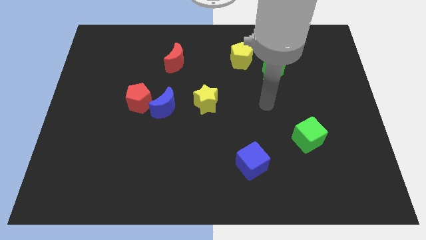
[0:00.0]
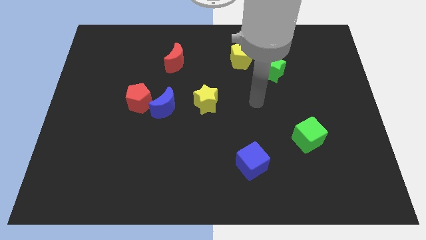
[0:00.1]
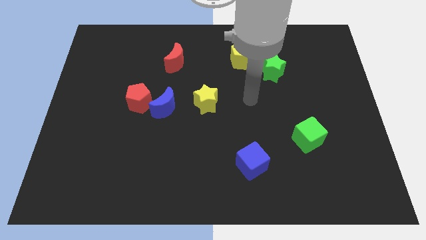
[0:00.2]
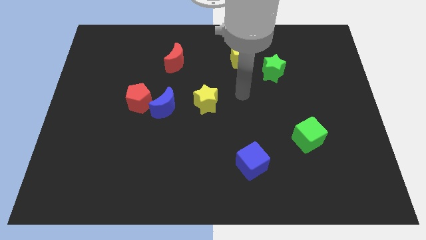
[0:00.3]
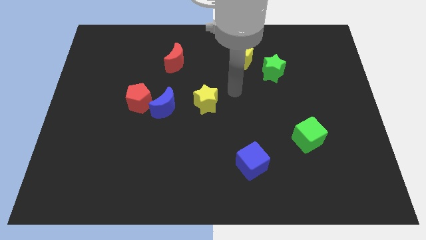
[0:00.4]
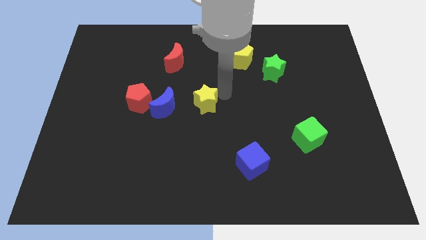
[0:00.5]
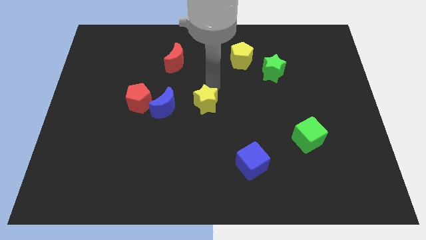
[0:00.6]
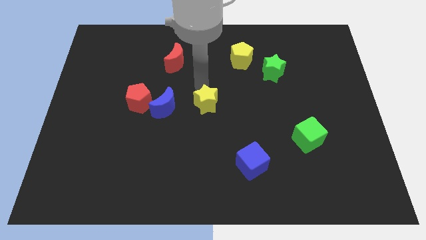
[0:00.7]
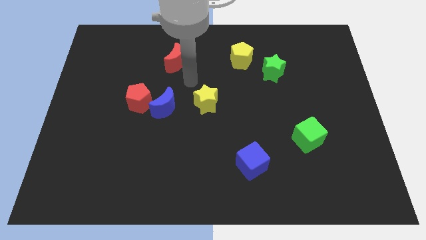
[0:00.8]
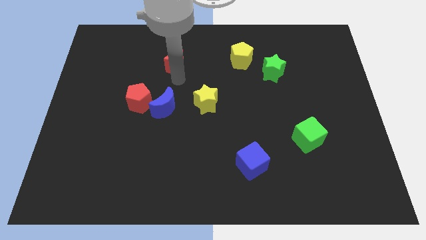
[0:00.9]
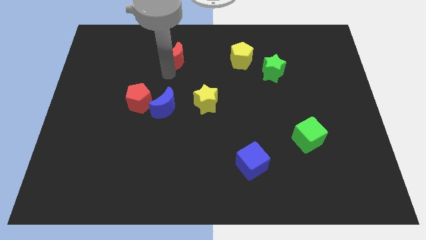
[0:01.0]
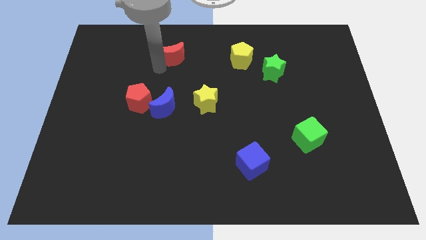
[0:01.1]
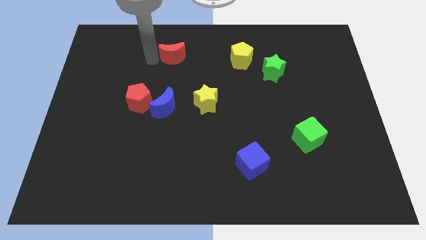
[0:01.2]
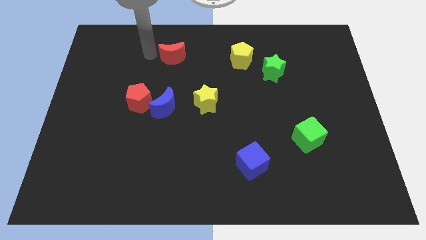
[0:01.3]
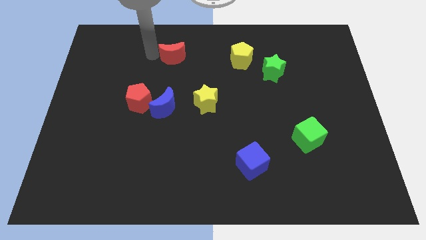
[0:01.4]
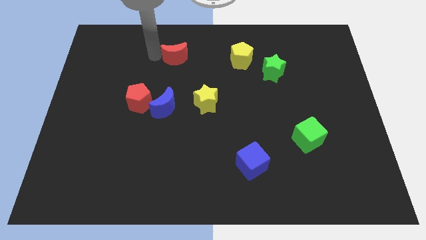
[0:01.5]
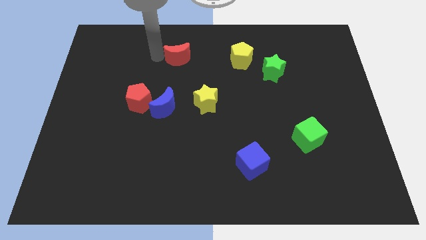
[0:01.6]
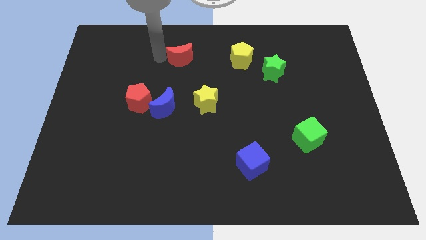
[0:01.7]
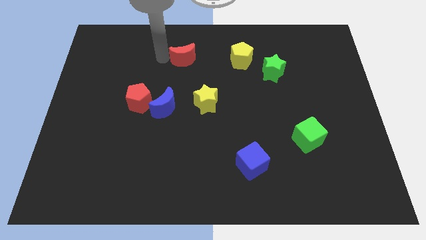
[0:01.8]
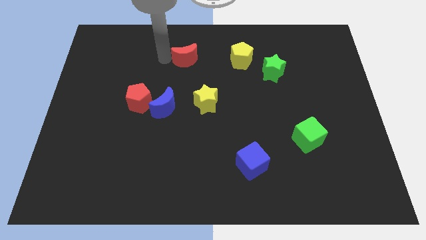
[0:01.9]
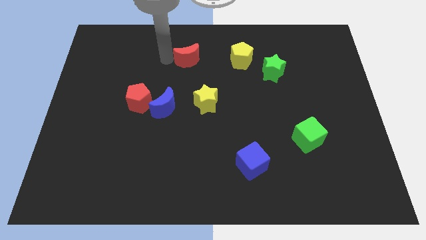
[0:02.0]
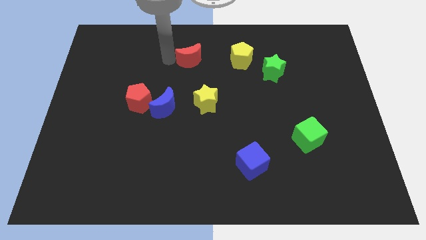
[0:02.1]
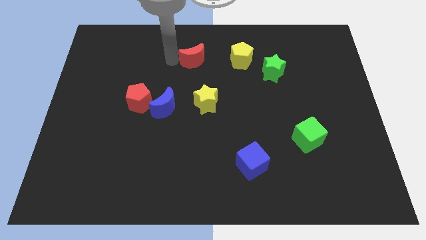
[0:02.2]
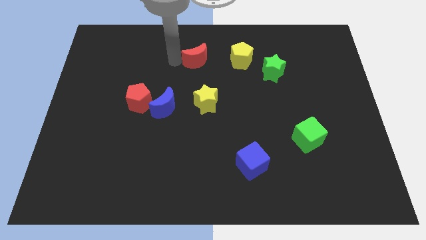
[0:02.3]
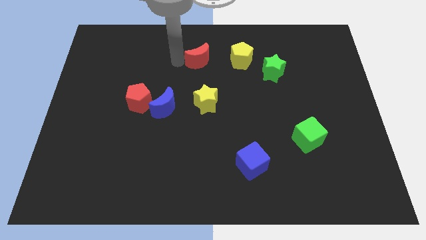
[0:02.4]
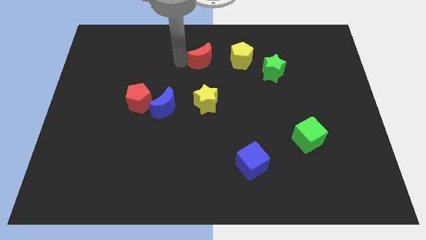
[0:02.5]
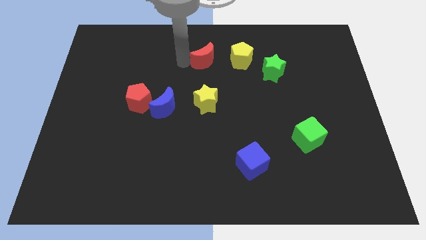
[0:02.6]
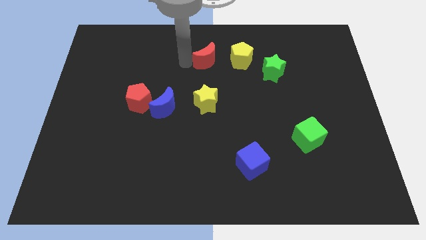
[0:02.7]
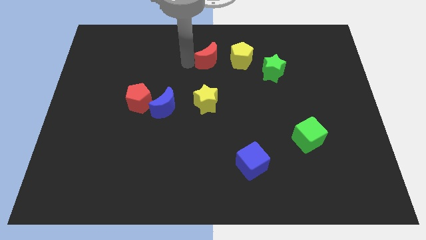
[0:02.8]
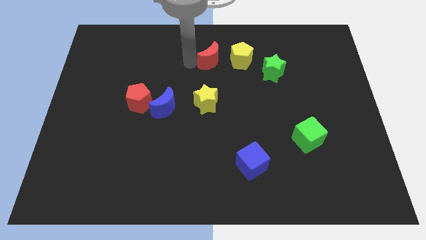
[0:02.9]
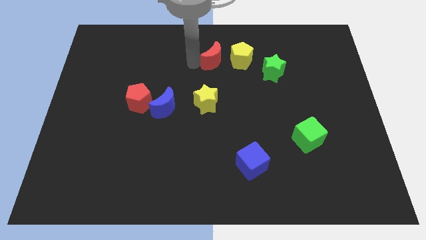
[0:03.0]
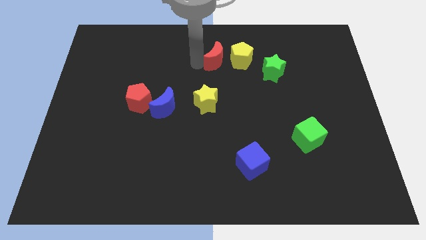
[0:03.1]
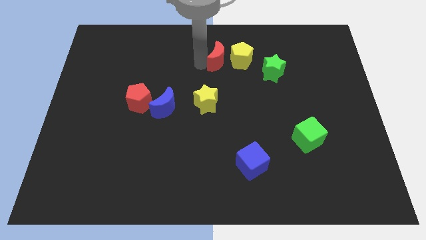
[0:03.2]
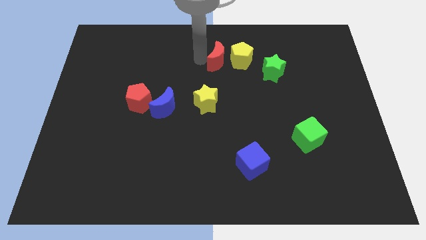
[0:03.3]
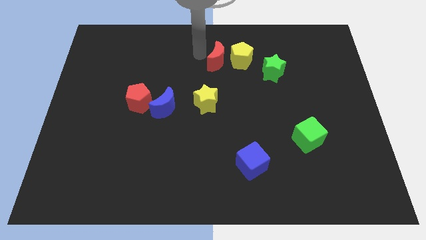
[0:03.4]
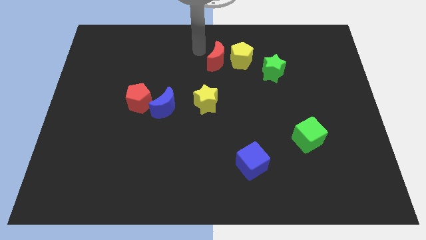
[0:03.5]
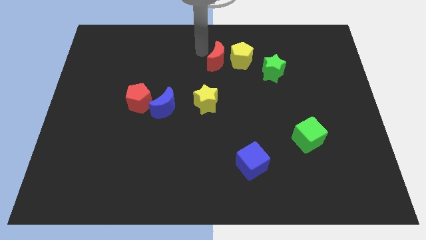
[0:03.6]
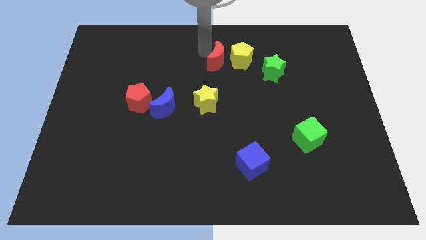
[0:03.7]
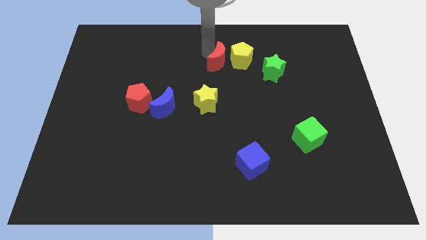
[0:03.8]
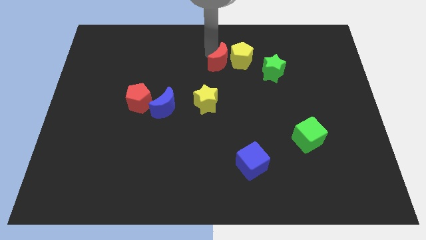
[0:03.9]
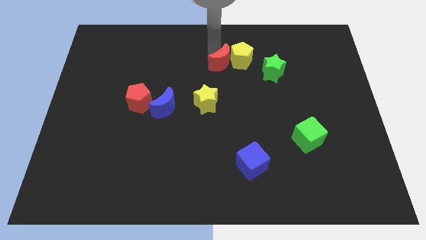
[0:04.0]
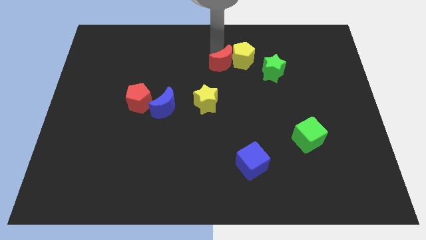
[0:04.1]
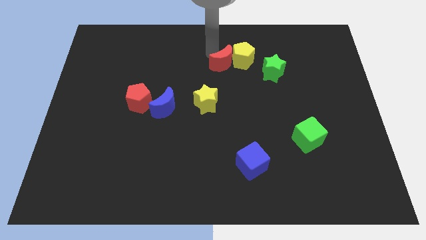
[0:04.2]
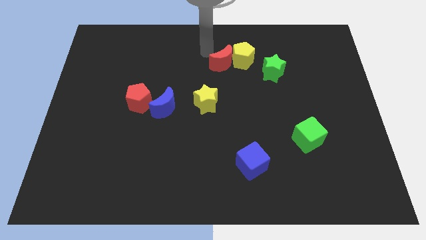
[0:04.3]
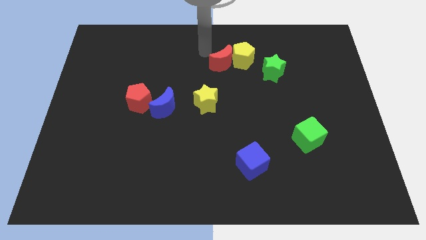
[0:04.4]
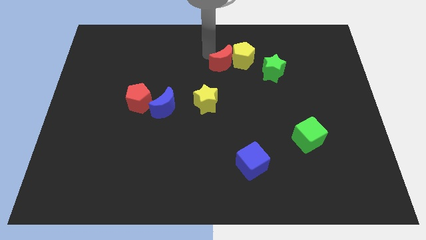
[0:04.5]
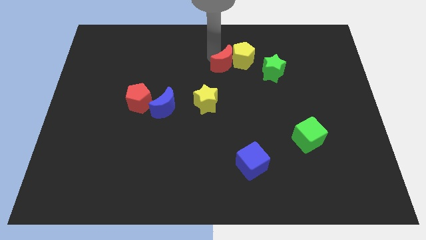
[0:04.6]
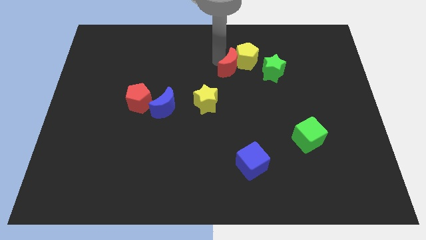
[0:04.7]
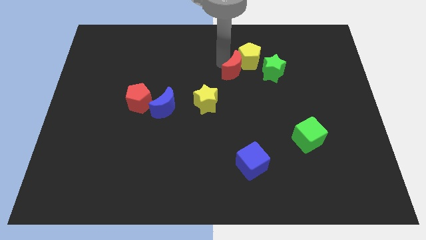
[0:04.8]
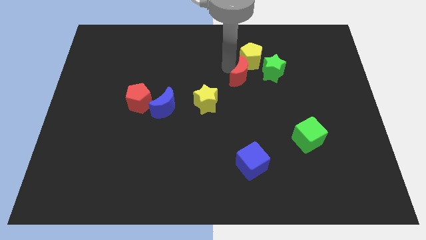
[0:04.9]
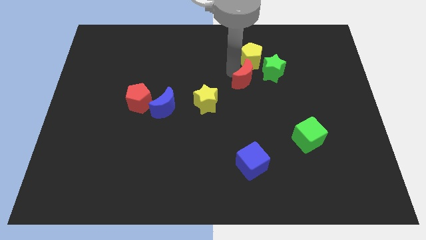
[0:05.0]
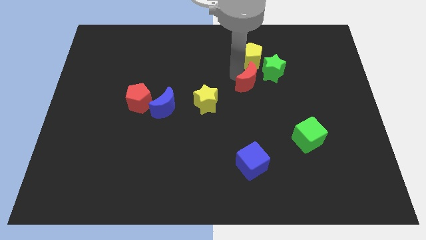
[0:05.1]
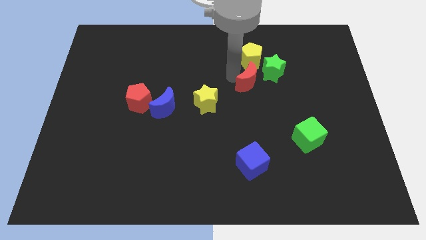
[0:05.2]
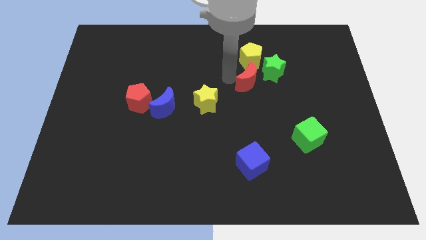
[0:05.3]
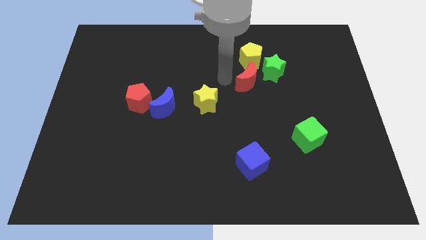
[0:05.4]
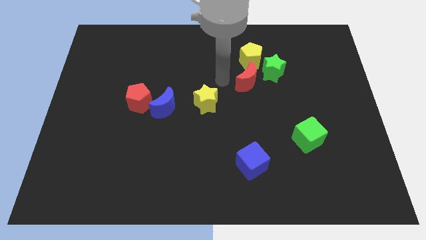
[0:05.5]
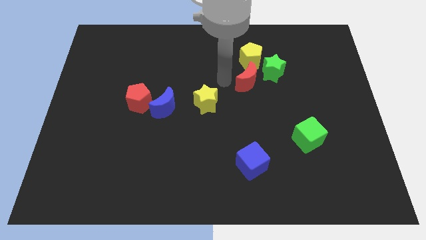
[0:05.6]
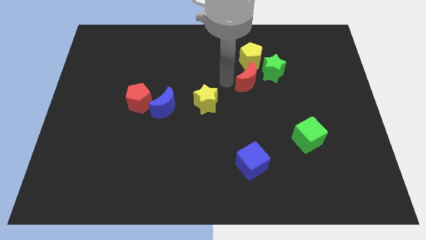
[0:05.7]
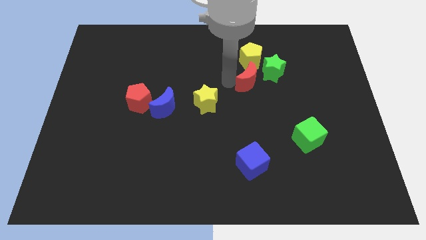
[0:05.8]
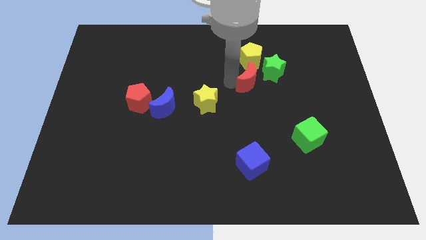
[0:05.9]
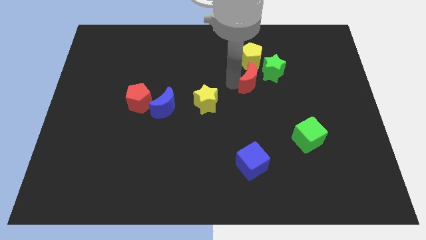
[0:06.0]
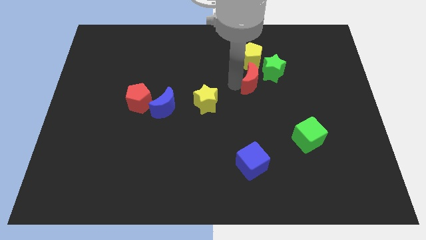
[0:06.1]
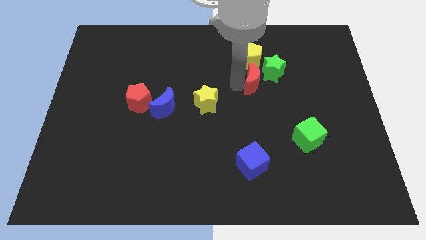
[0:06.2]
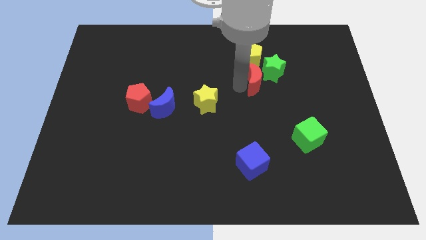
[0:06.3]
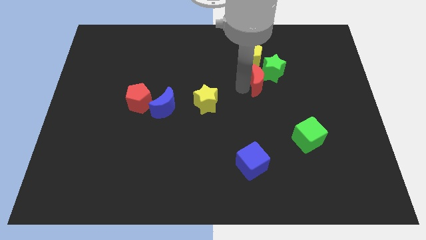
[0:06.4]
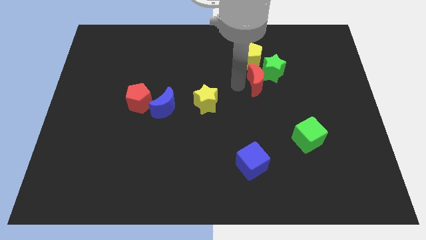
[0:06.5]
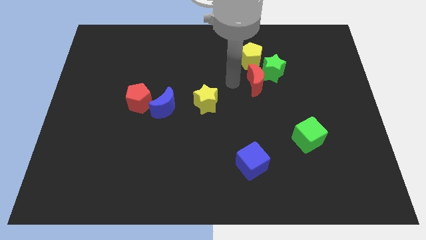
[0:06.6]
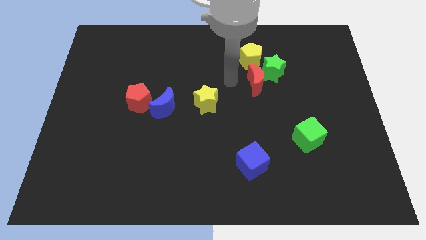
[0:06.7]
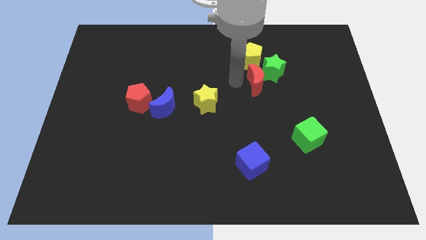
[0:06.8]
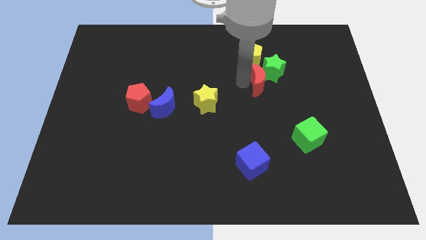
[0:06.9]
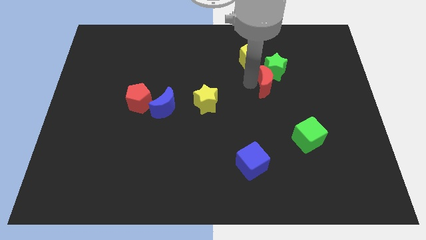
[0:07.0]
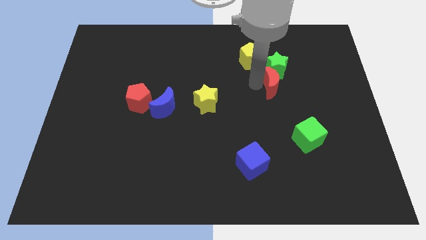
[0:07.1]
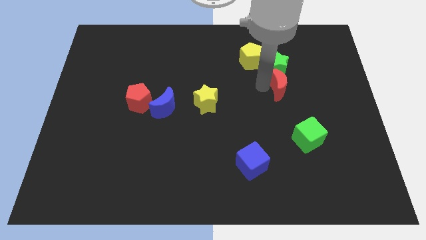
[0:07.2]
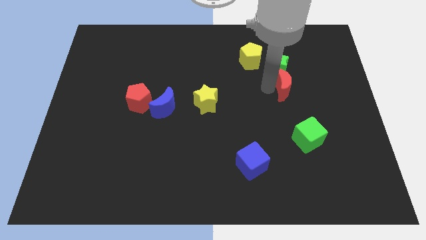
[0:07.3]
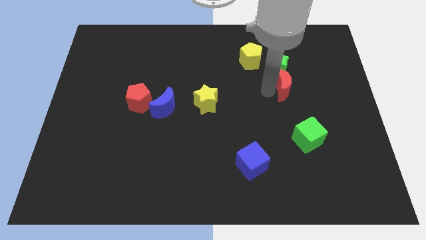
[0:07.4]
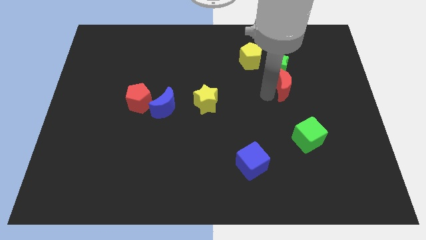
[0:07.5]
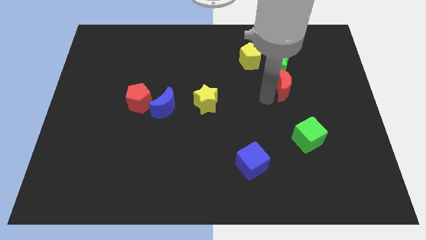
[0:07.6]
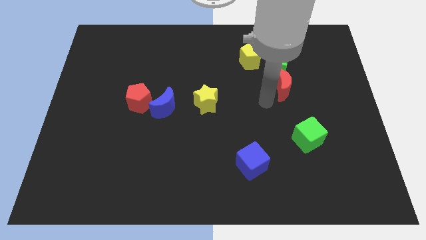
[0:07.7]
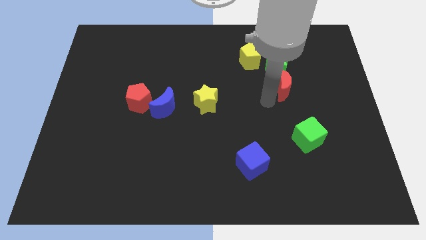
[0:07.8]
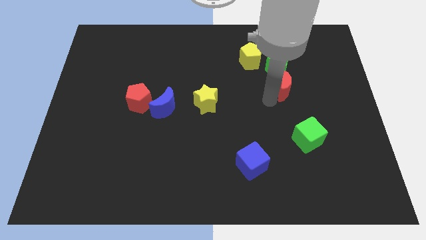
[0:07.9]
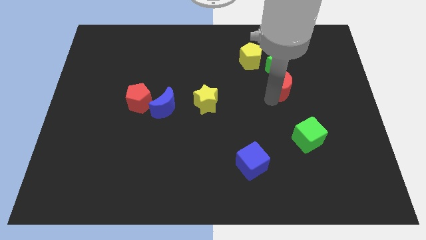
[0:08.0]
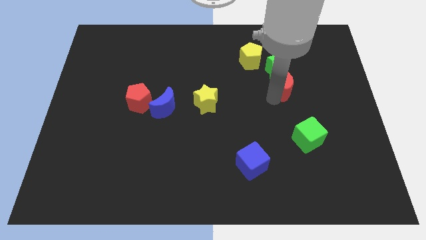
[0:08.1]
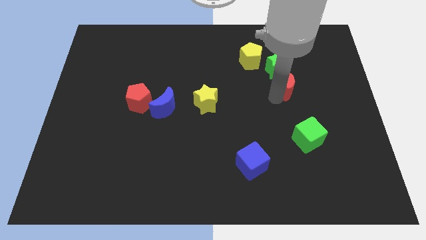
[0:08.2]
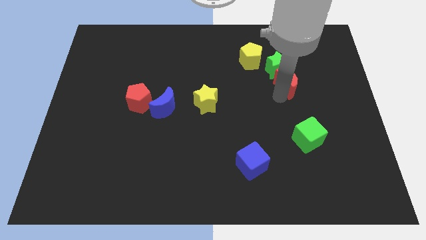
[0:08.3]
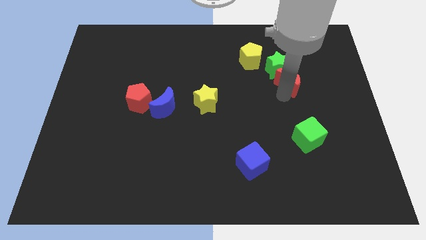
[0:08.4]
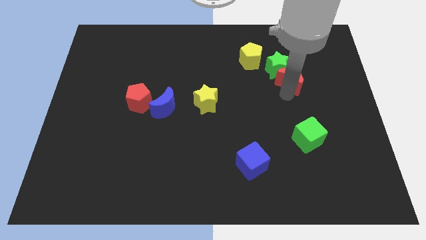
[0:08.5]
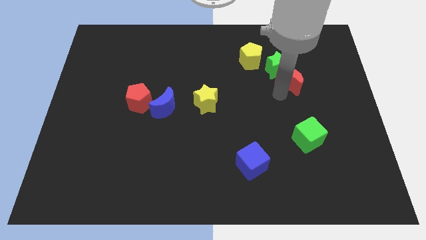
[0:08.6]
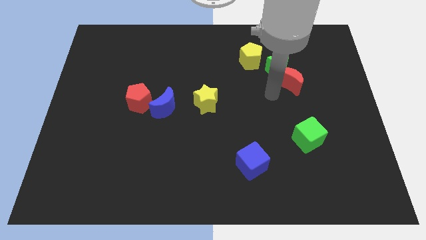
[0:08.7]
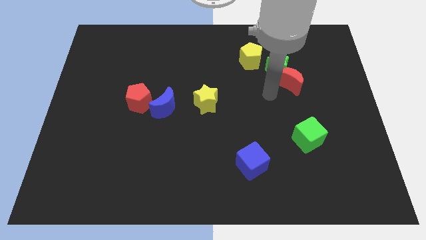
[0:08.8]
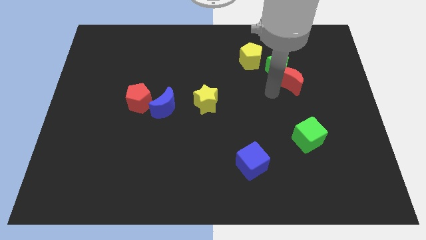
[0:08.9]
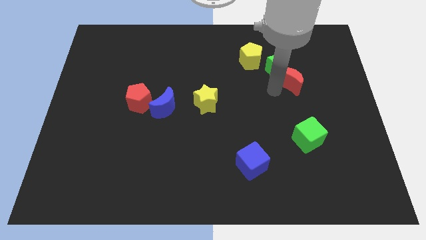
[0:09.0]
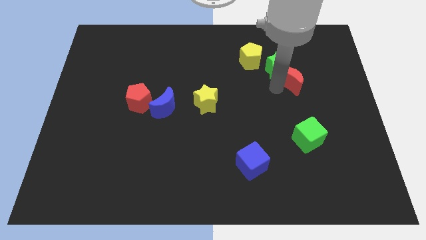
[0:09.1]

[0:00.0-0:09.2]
put the red moon just right of the green star
